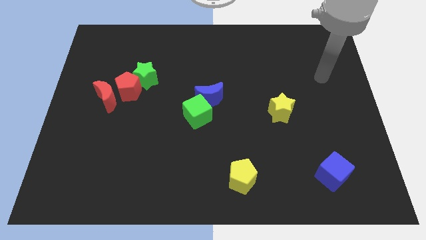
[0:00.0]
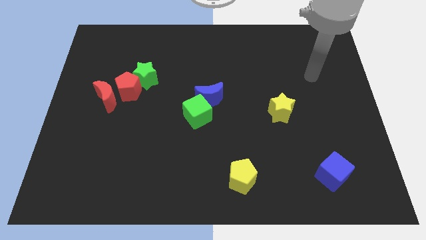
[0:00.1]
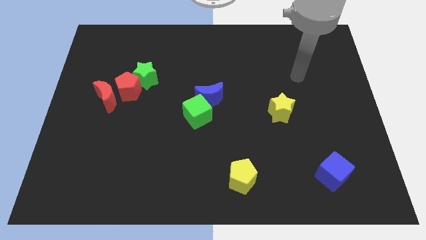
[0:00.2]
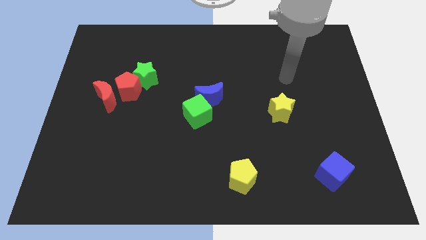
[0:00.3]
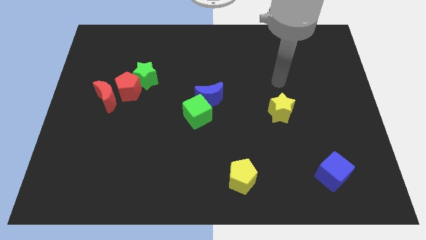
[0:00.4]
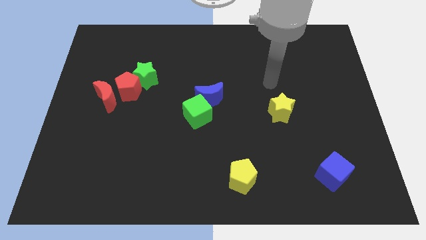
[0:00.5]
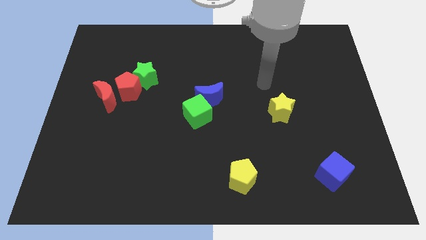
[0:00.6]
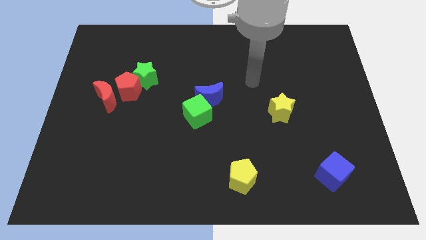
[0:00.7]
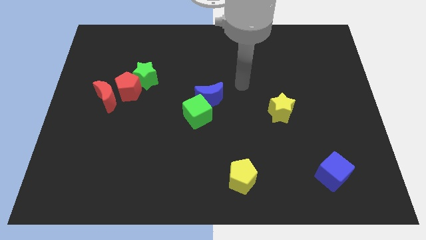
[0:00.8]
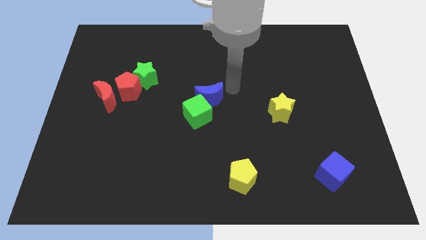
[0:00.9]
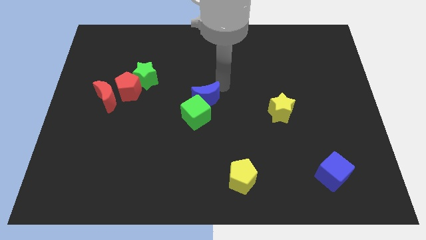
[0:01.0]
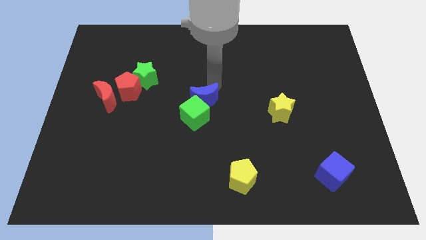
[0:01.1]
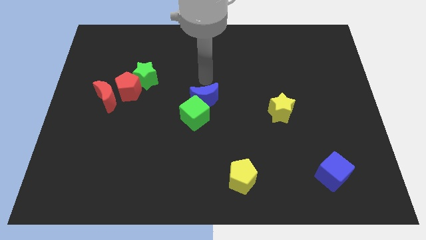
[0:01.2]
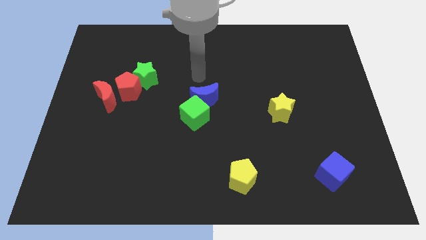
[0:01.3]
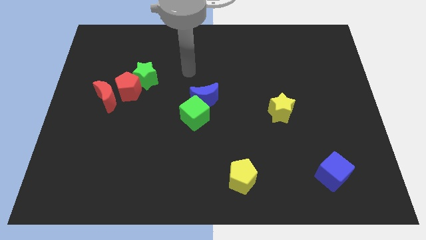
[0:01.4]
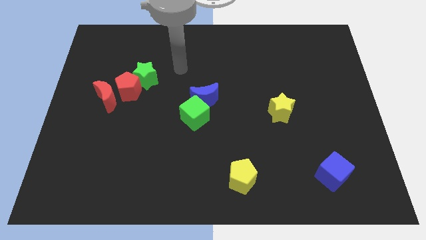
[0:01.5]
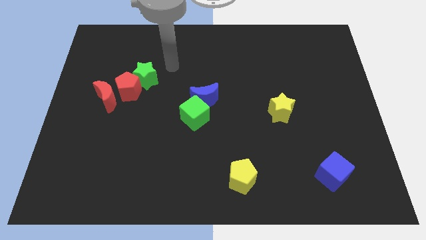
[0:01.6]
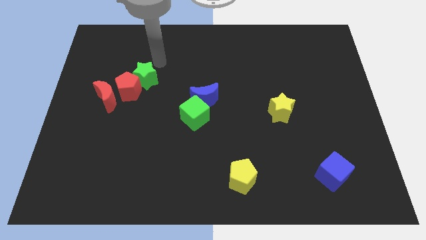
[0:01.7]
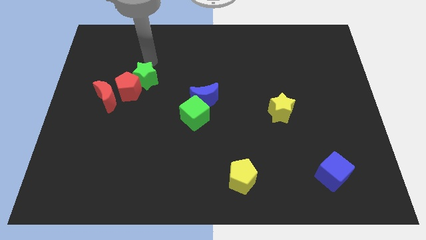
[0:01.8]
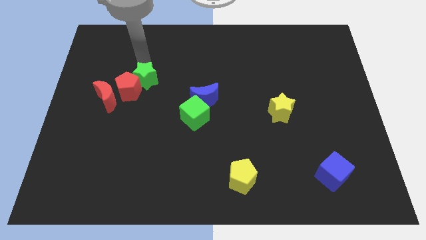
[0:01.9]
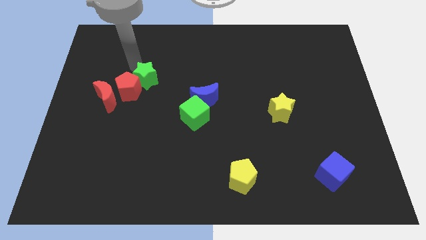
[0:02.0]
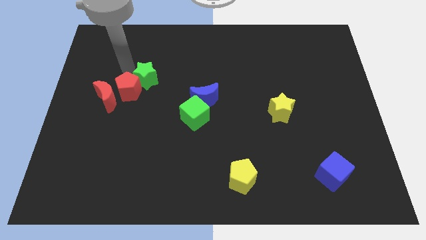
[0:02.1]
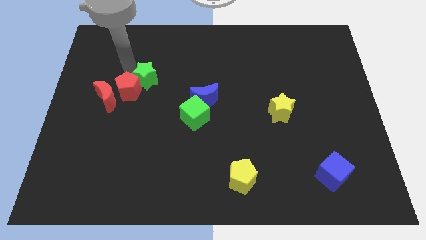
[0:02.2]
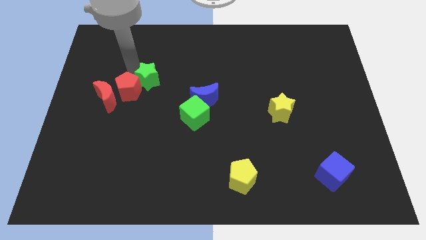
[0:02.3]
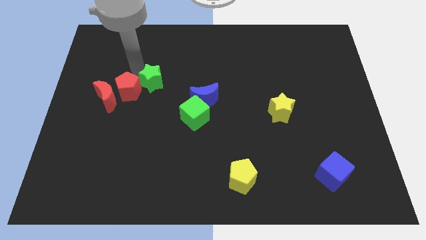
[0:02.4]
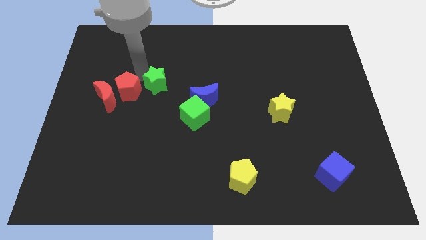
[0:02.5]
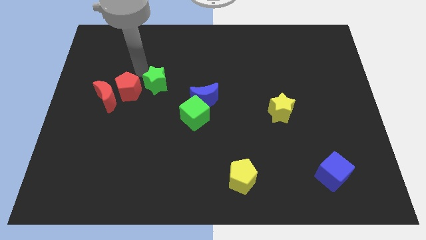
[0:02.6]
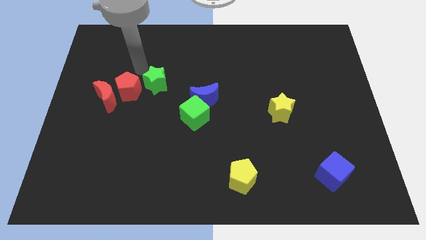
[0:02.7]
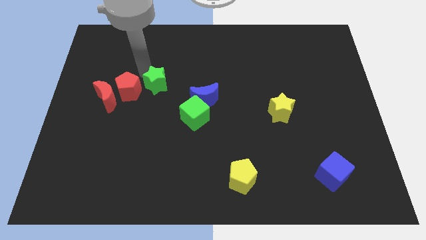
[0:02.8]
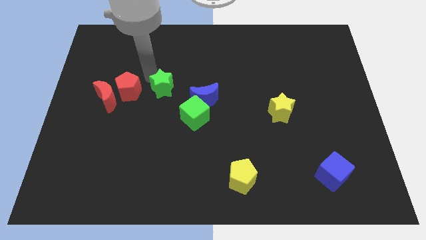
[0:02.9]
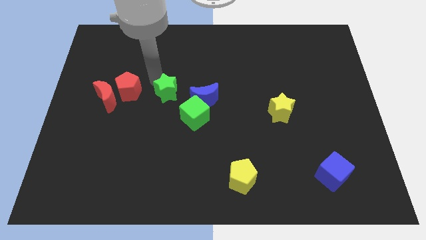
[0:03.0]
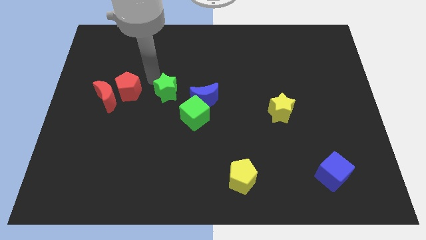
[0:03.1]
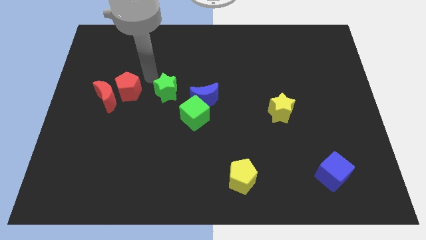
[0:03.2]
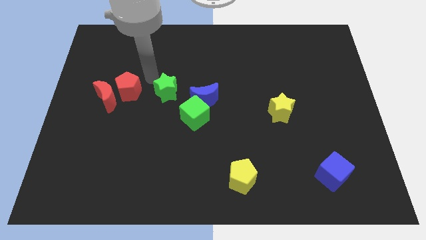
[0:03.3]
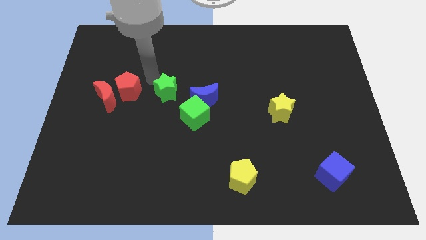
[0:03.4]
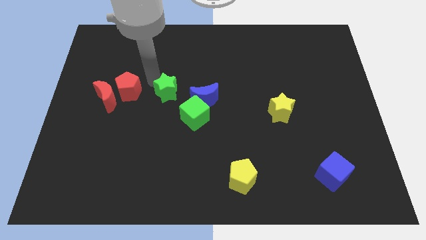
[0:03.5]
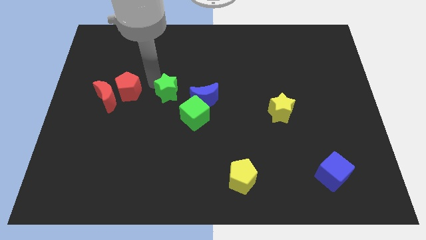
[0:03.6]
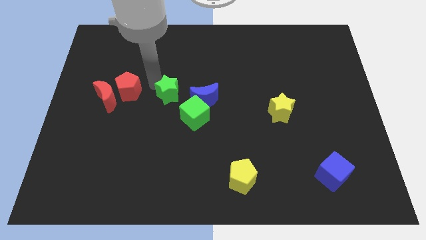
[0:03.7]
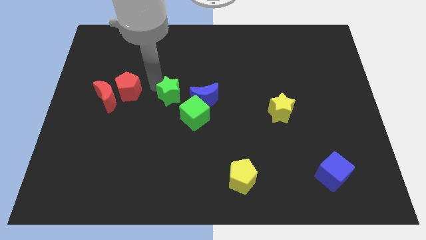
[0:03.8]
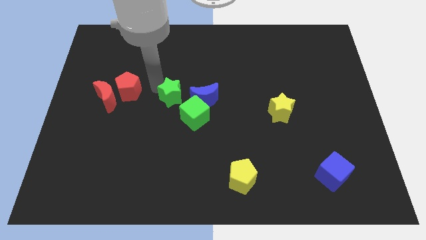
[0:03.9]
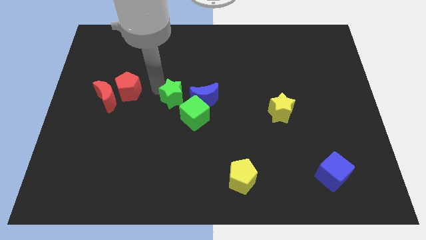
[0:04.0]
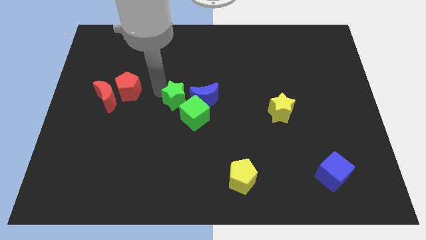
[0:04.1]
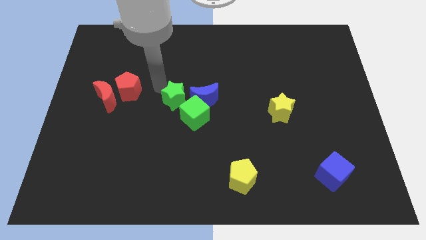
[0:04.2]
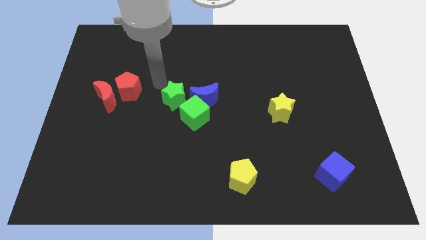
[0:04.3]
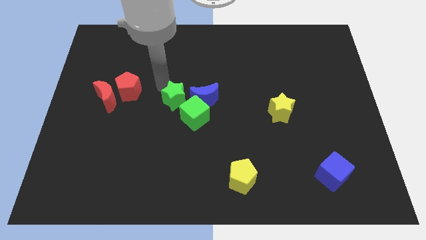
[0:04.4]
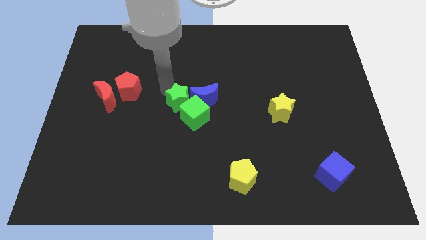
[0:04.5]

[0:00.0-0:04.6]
slide the green star towards the green cube

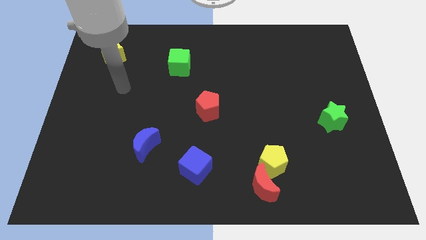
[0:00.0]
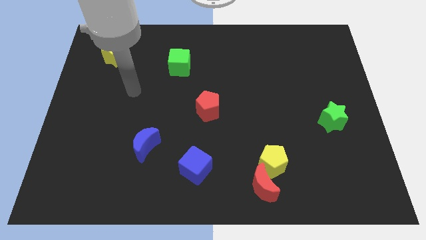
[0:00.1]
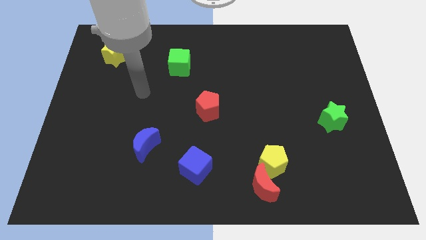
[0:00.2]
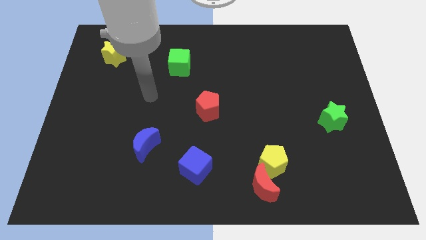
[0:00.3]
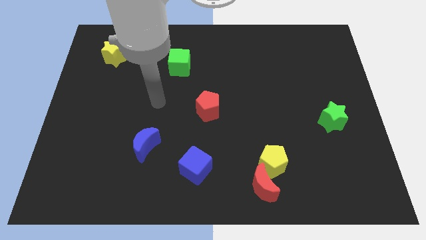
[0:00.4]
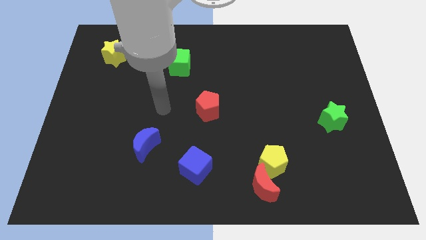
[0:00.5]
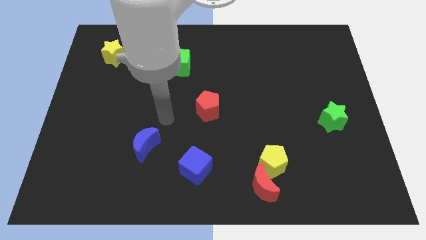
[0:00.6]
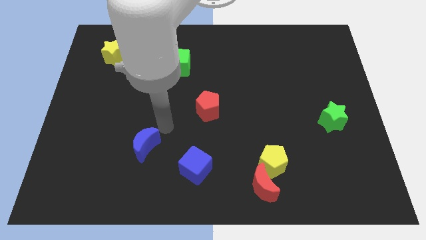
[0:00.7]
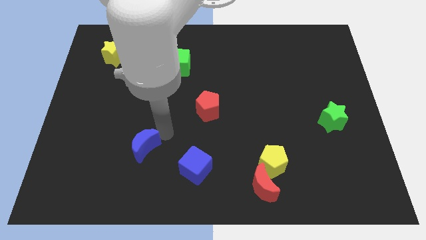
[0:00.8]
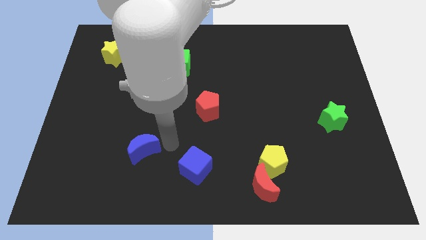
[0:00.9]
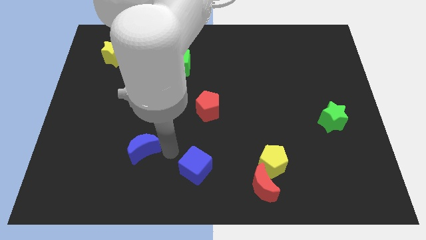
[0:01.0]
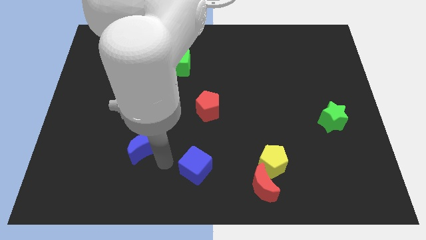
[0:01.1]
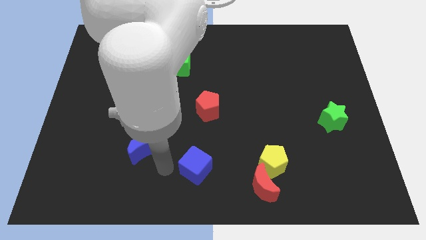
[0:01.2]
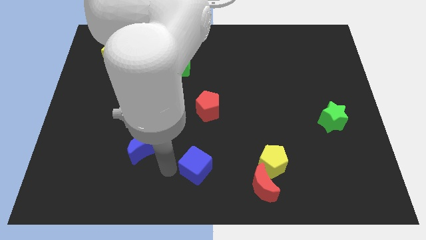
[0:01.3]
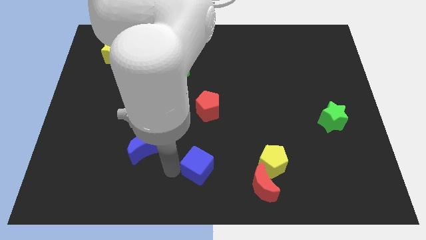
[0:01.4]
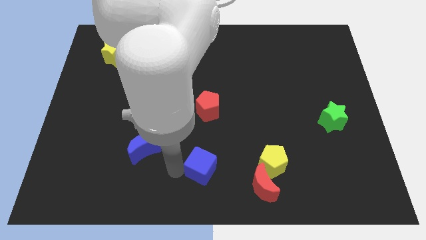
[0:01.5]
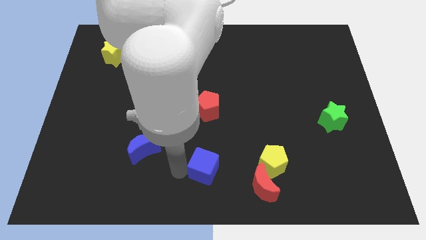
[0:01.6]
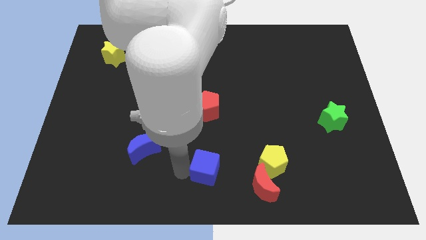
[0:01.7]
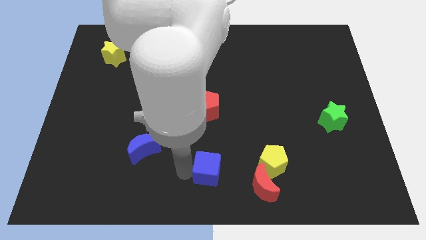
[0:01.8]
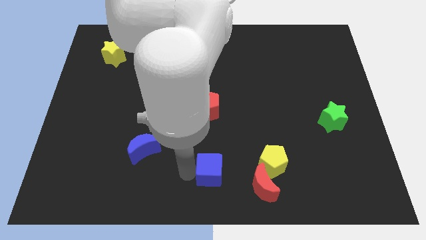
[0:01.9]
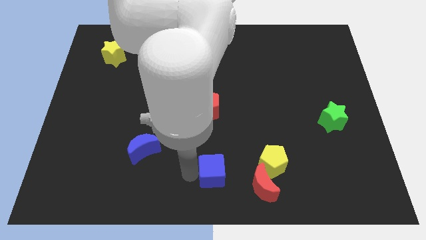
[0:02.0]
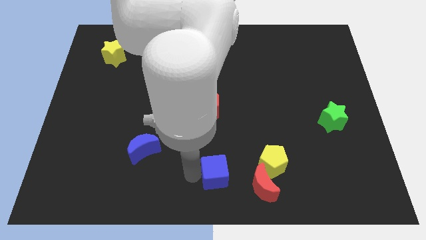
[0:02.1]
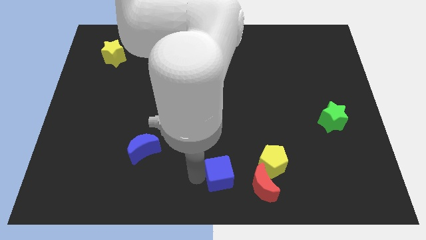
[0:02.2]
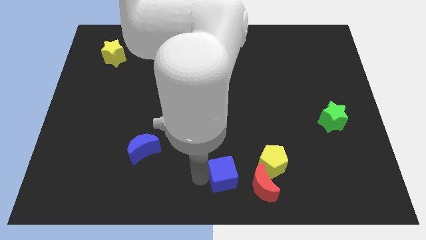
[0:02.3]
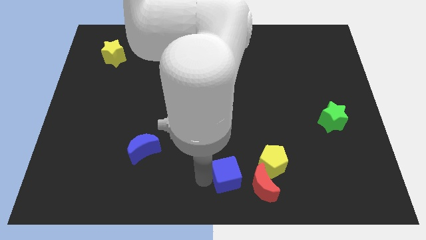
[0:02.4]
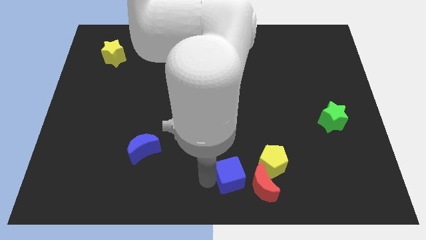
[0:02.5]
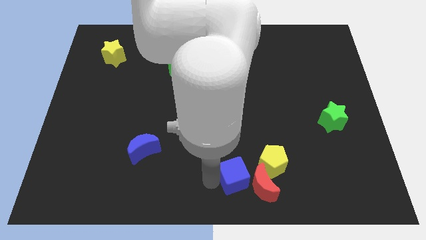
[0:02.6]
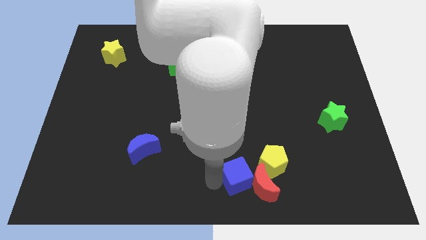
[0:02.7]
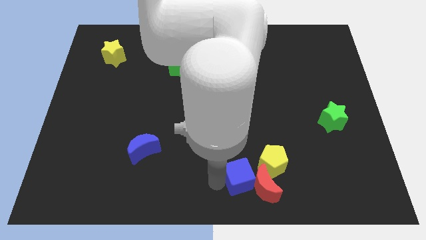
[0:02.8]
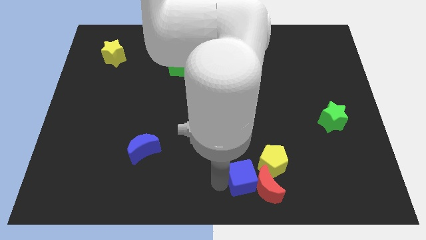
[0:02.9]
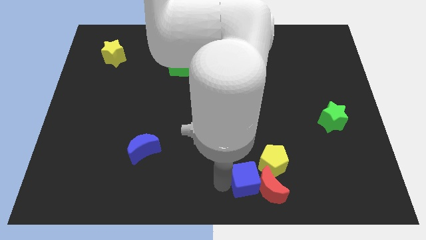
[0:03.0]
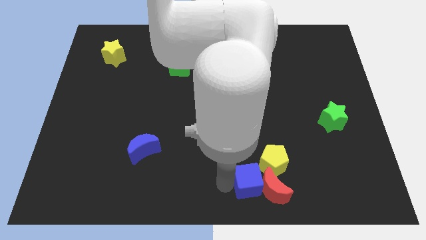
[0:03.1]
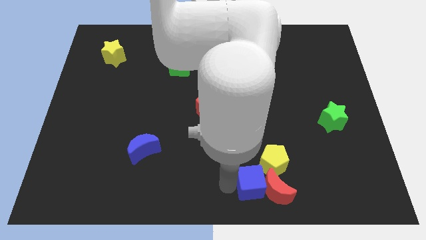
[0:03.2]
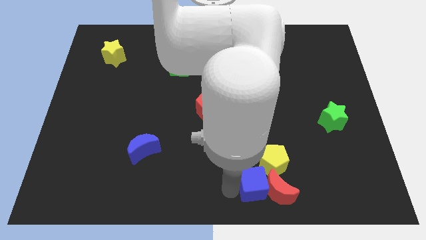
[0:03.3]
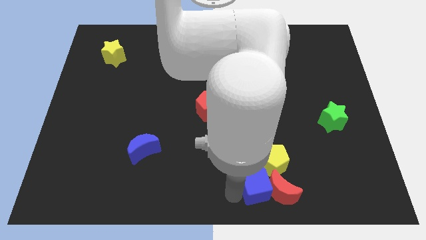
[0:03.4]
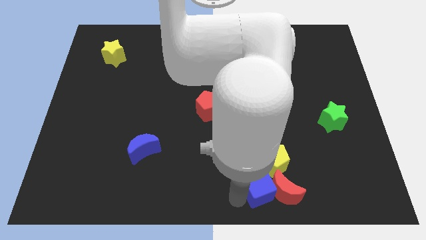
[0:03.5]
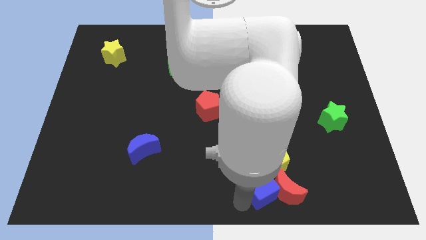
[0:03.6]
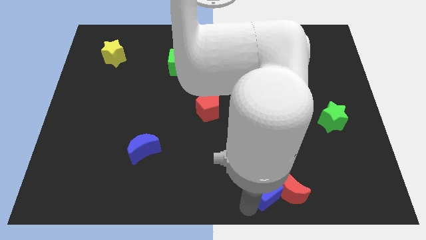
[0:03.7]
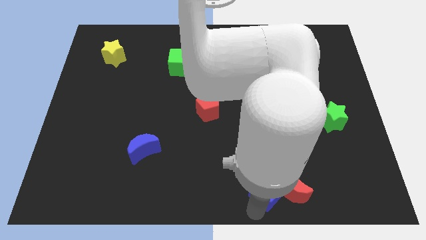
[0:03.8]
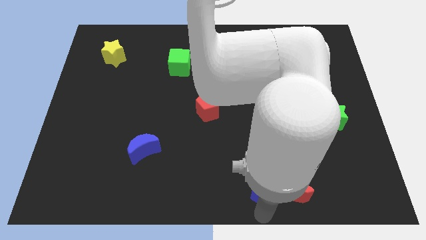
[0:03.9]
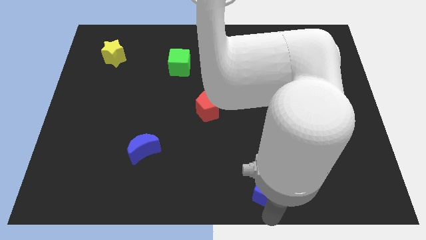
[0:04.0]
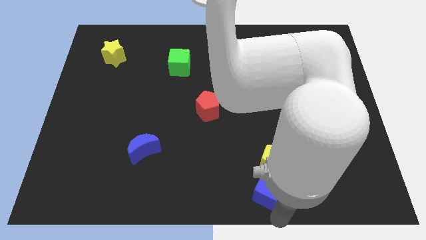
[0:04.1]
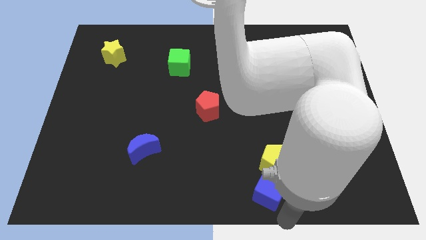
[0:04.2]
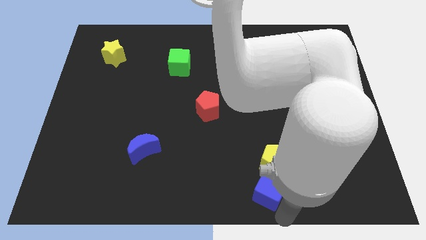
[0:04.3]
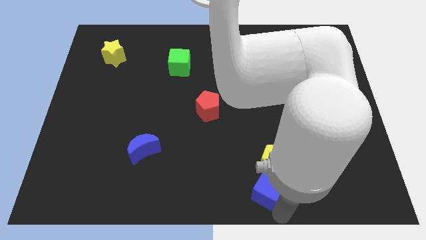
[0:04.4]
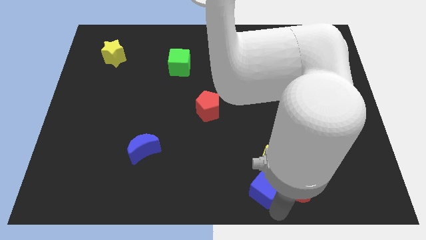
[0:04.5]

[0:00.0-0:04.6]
move the blue cube next to the yellow pentagon
